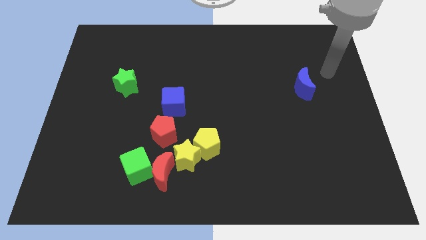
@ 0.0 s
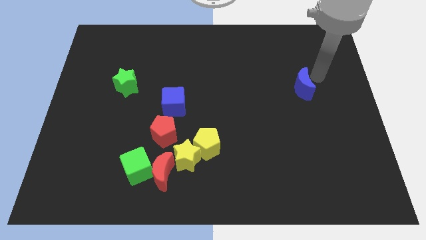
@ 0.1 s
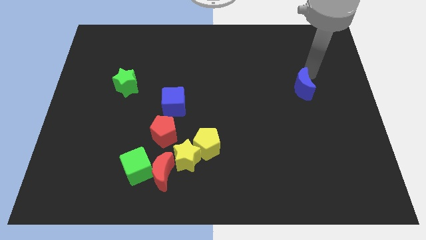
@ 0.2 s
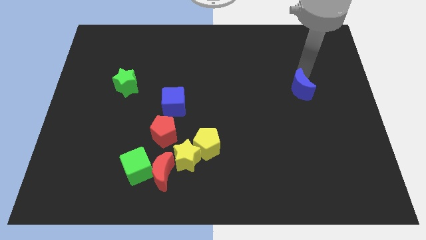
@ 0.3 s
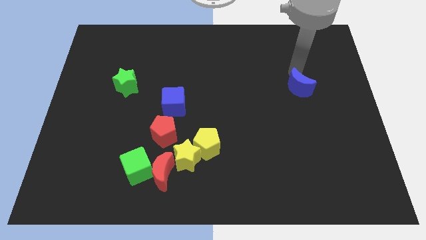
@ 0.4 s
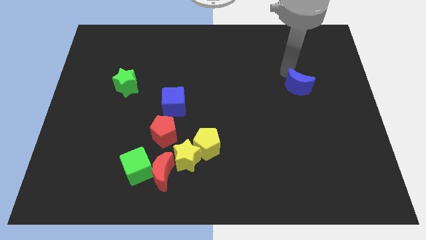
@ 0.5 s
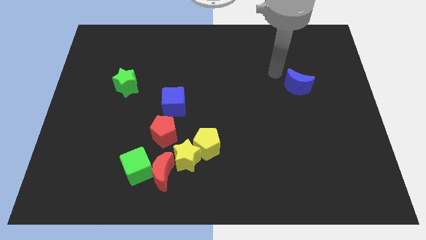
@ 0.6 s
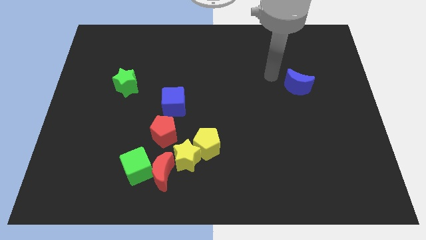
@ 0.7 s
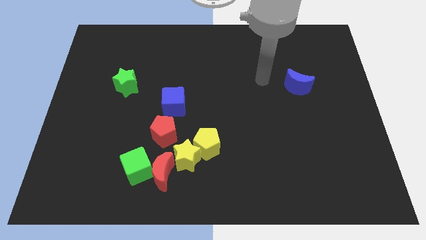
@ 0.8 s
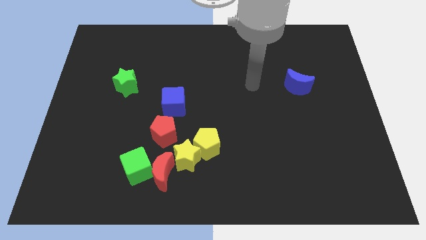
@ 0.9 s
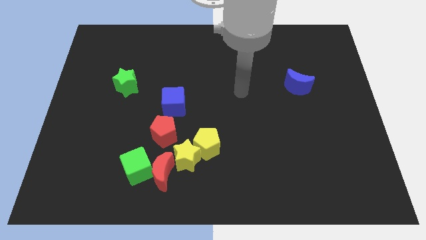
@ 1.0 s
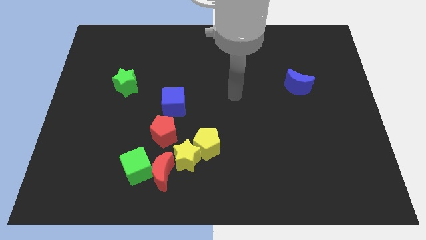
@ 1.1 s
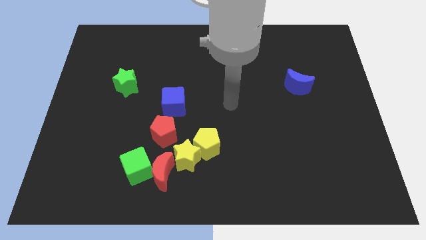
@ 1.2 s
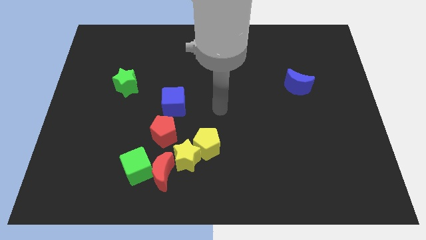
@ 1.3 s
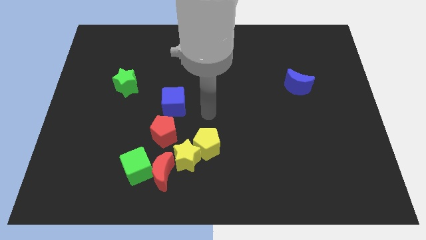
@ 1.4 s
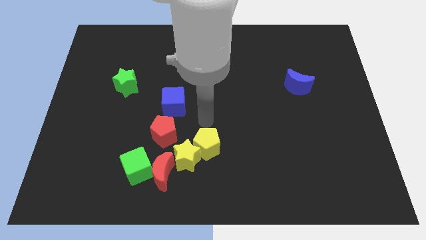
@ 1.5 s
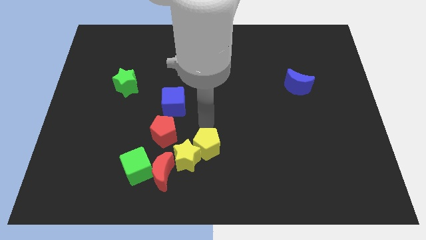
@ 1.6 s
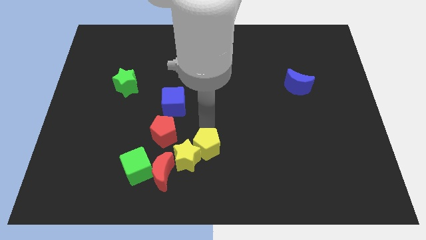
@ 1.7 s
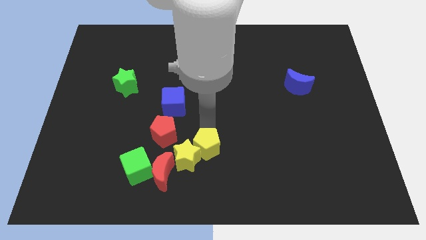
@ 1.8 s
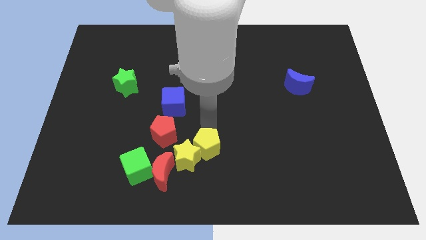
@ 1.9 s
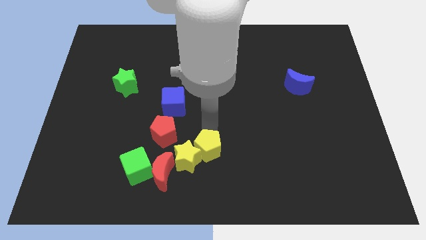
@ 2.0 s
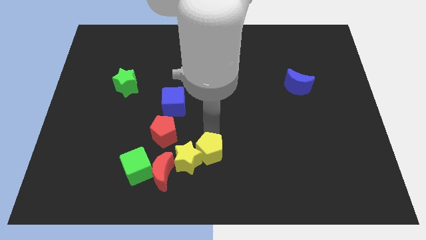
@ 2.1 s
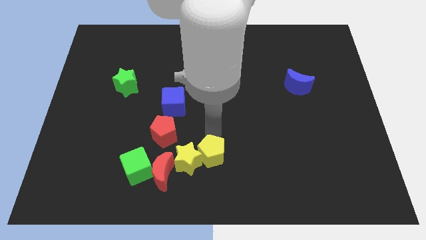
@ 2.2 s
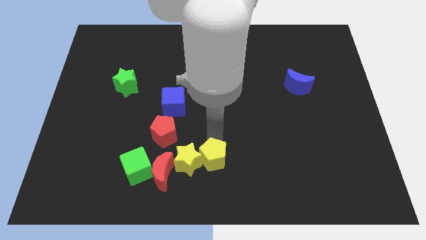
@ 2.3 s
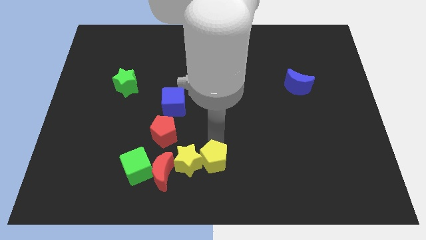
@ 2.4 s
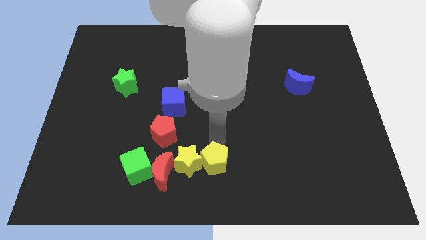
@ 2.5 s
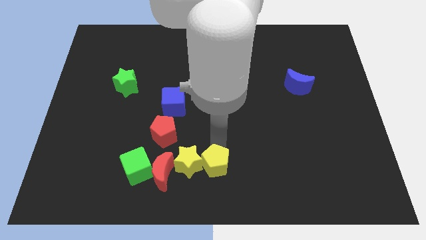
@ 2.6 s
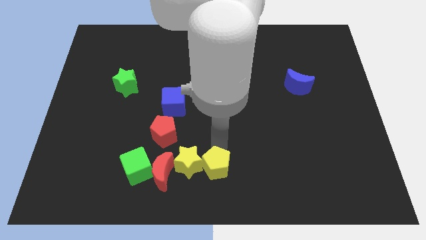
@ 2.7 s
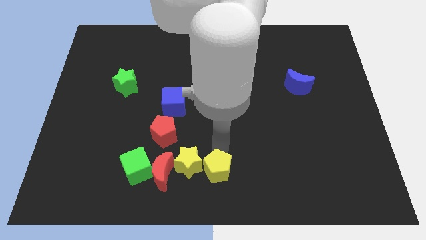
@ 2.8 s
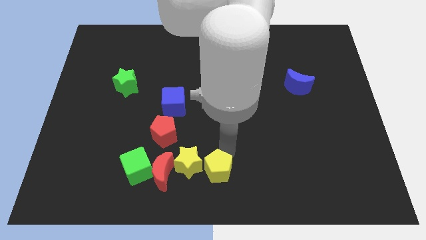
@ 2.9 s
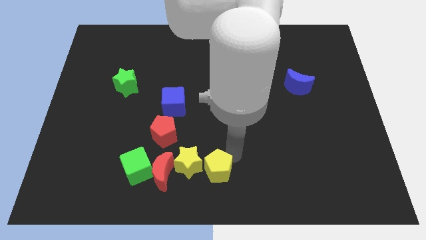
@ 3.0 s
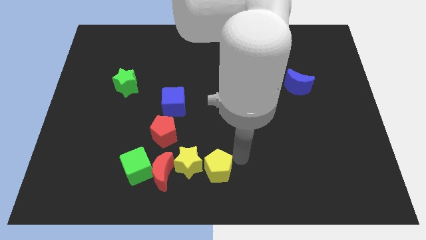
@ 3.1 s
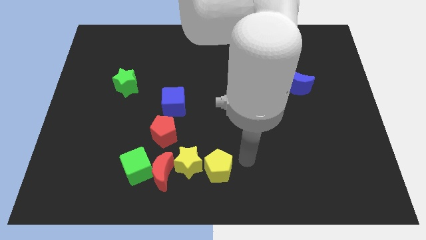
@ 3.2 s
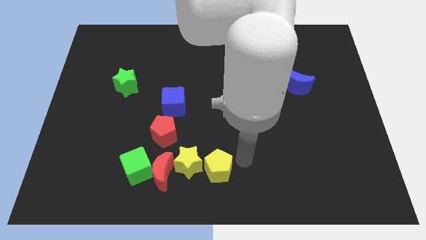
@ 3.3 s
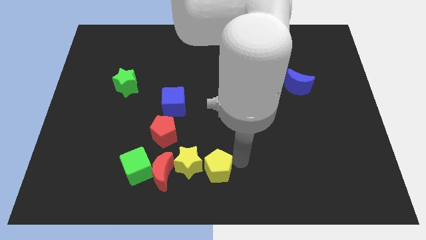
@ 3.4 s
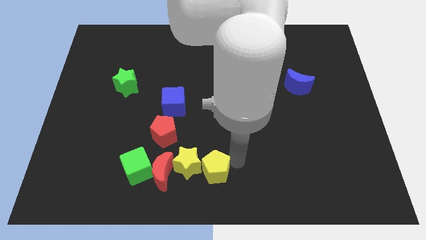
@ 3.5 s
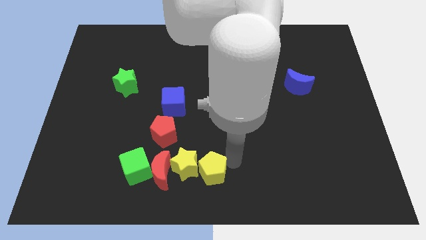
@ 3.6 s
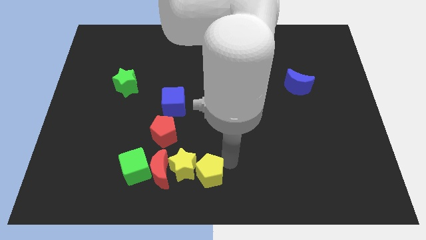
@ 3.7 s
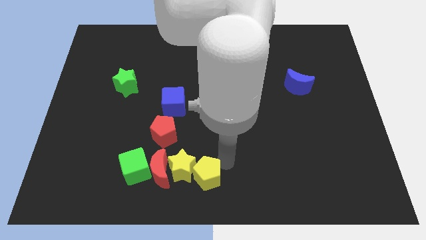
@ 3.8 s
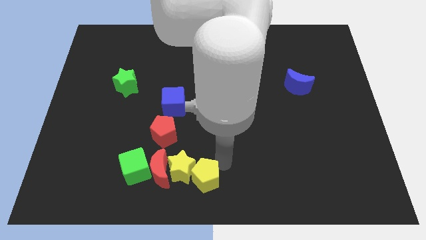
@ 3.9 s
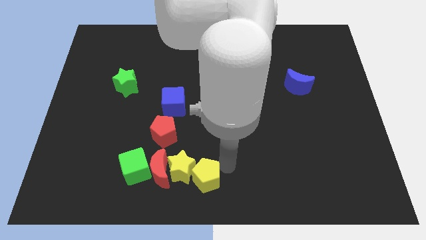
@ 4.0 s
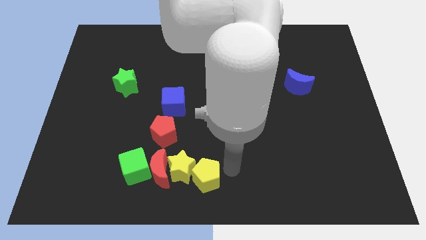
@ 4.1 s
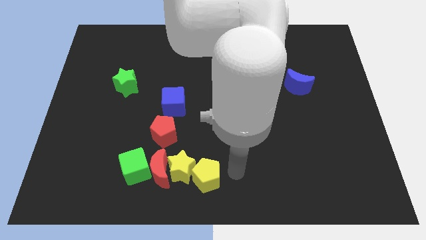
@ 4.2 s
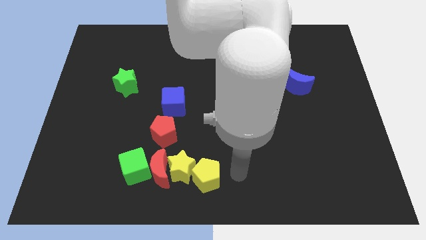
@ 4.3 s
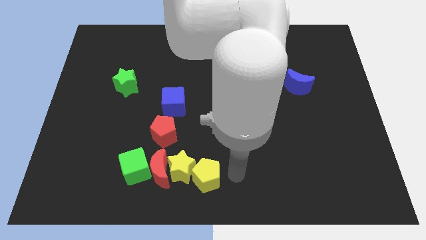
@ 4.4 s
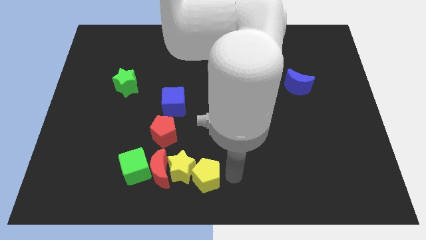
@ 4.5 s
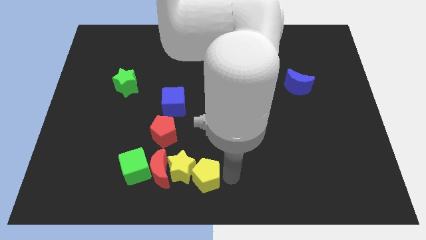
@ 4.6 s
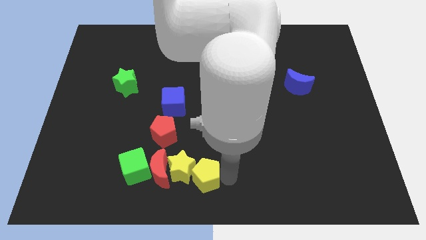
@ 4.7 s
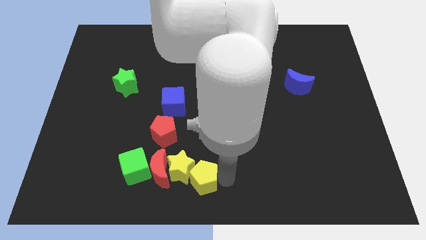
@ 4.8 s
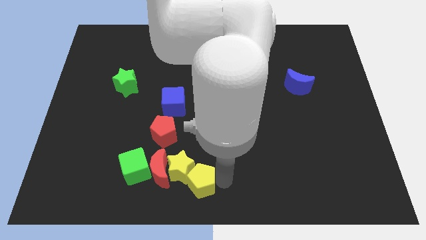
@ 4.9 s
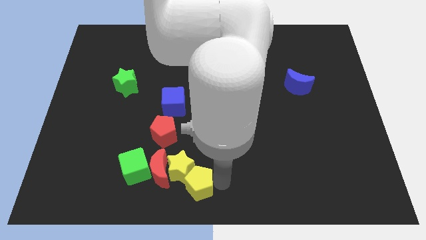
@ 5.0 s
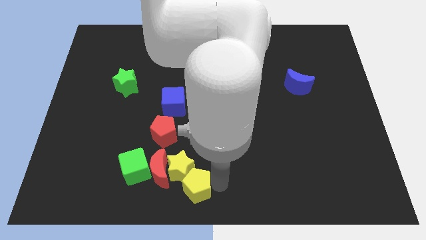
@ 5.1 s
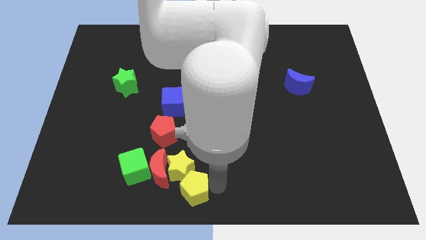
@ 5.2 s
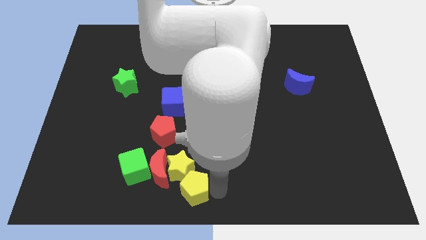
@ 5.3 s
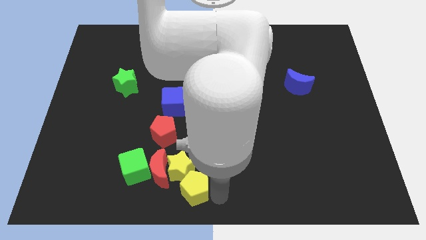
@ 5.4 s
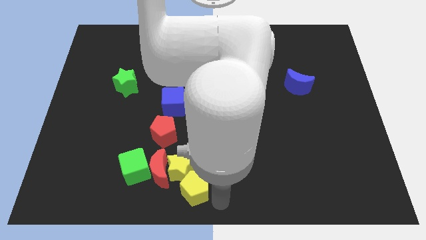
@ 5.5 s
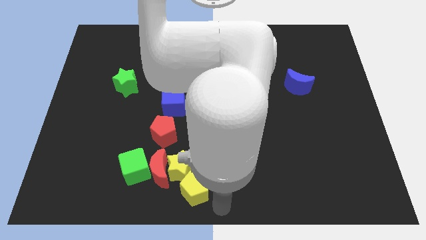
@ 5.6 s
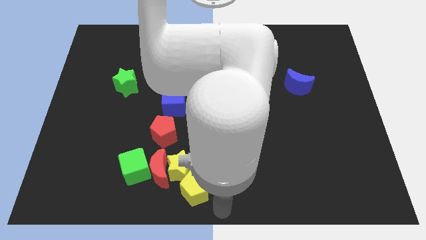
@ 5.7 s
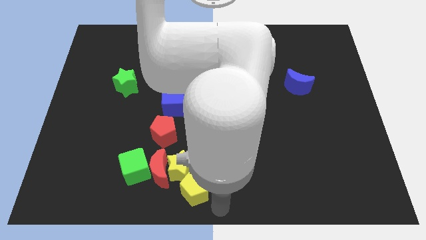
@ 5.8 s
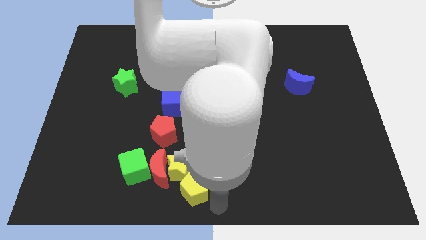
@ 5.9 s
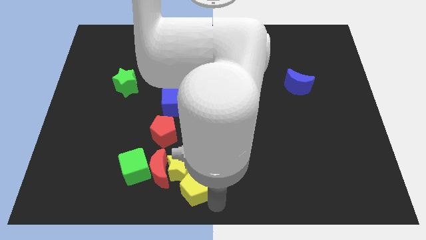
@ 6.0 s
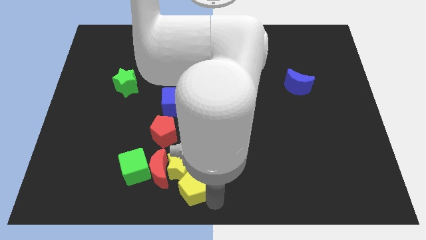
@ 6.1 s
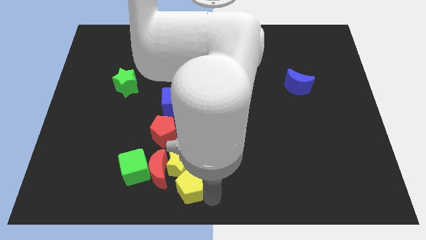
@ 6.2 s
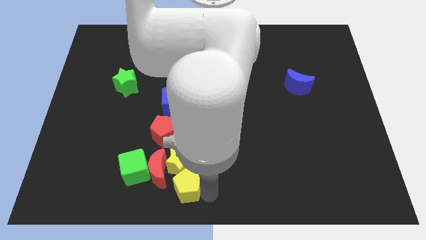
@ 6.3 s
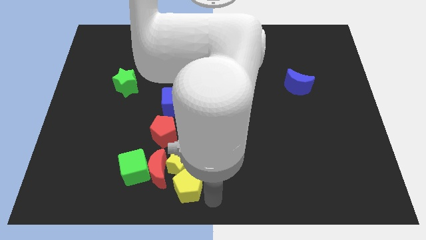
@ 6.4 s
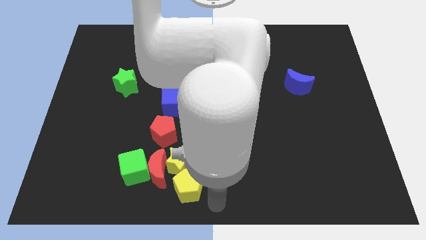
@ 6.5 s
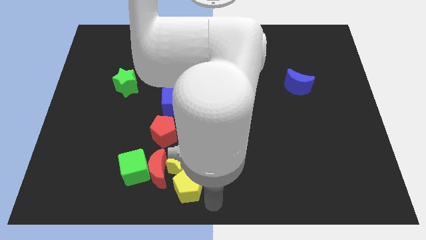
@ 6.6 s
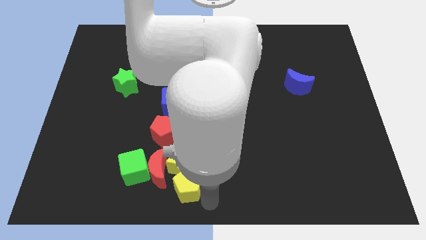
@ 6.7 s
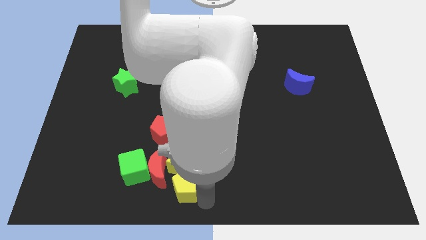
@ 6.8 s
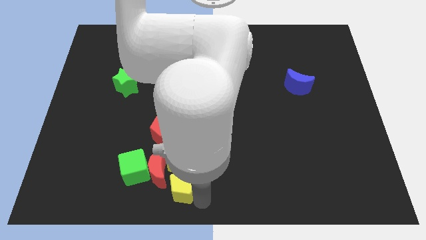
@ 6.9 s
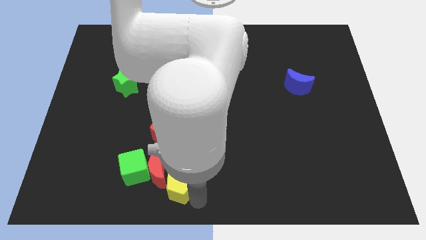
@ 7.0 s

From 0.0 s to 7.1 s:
slide the yellow pentagon towards the red moon

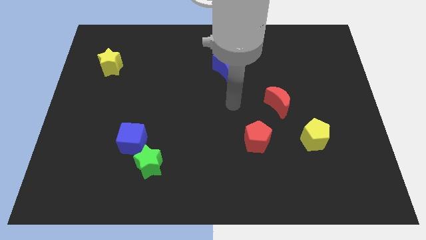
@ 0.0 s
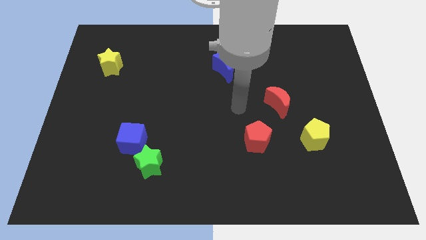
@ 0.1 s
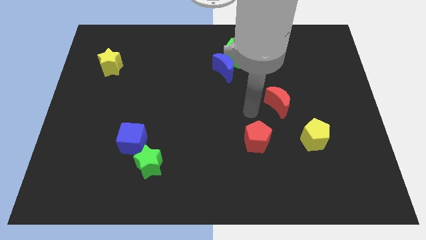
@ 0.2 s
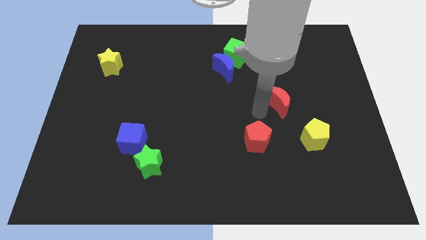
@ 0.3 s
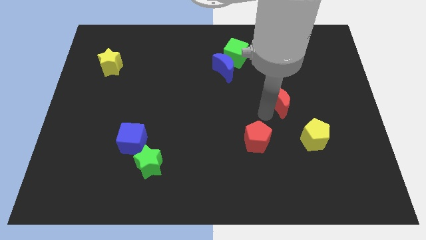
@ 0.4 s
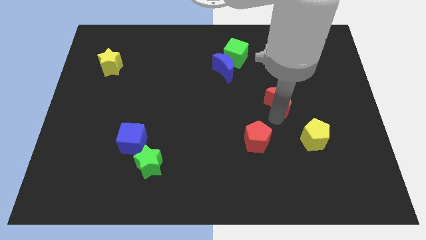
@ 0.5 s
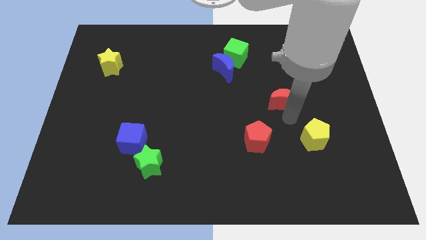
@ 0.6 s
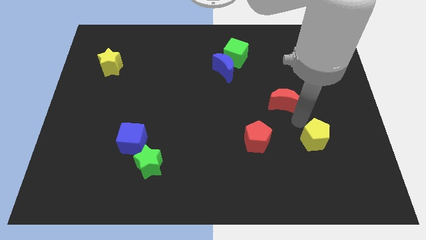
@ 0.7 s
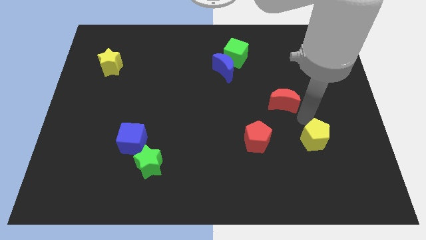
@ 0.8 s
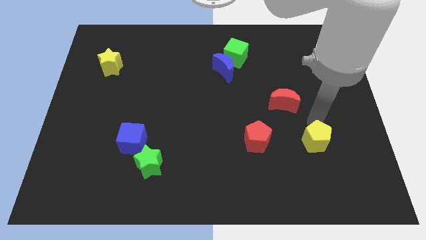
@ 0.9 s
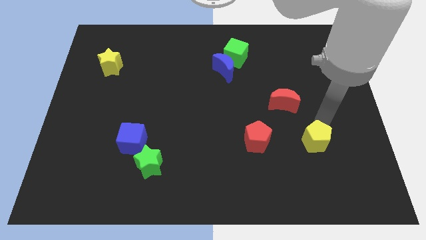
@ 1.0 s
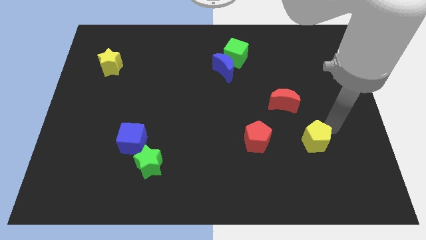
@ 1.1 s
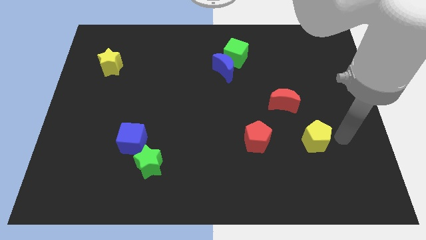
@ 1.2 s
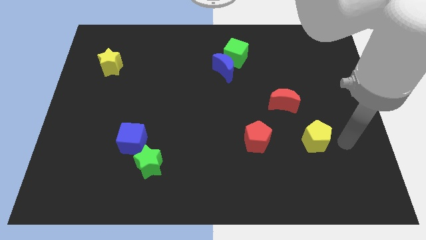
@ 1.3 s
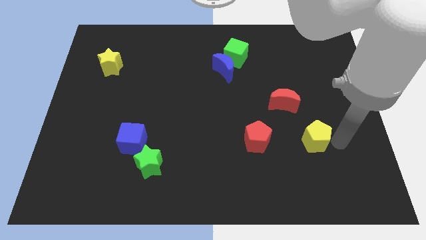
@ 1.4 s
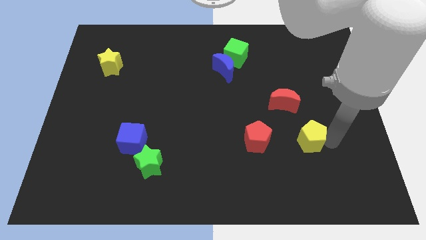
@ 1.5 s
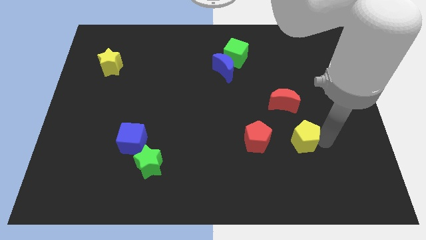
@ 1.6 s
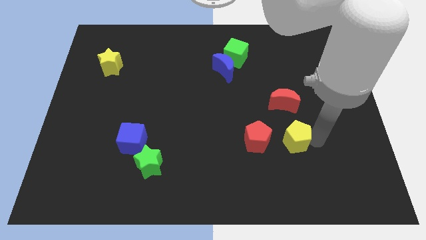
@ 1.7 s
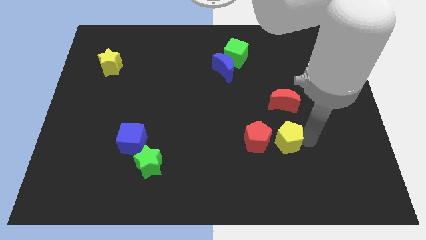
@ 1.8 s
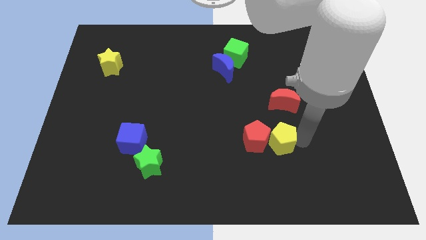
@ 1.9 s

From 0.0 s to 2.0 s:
slide the yellow pentagon towards the red pentagon
